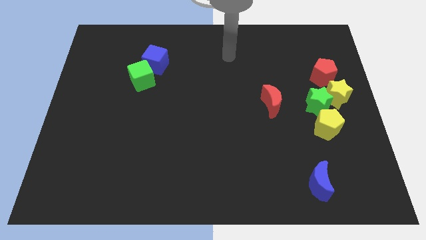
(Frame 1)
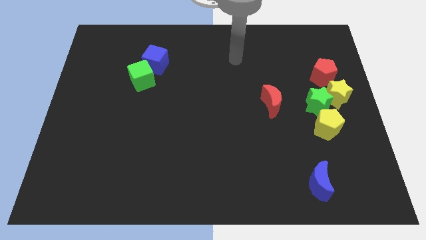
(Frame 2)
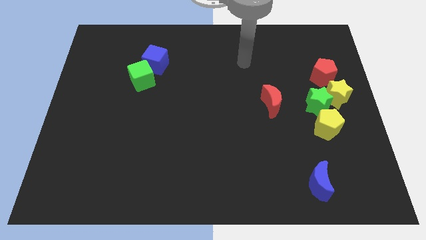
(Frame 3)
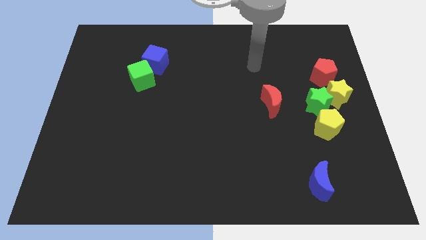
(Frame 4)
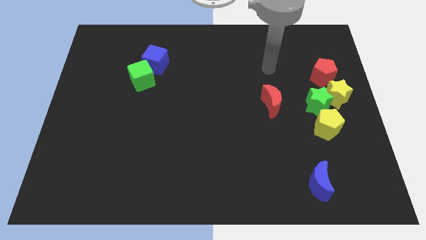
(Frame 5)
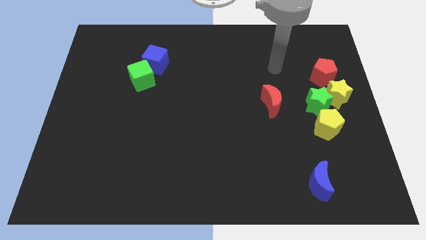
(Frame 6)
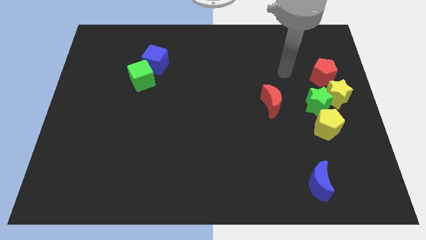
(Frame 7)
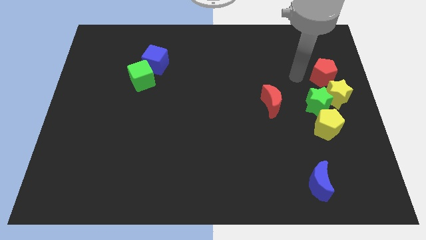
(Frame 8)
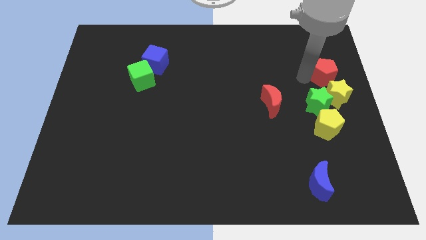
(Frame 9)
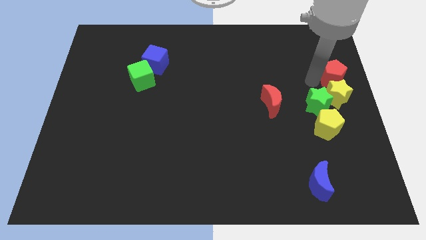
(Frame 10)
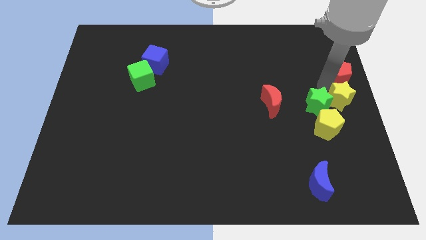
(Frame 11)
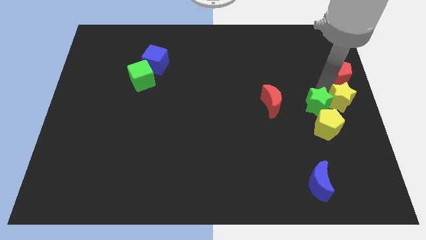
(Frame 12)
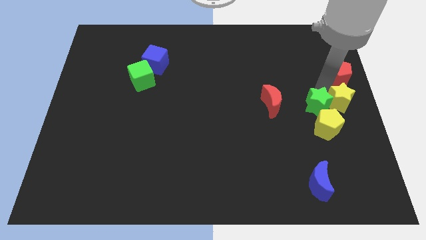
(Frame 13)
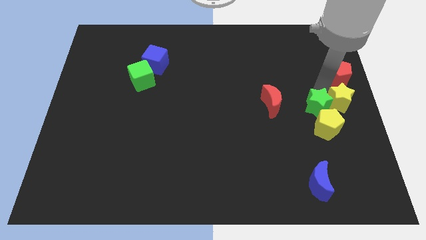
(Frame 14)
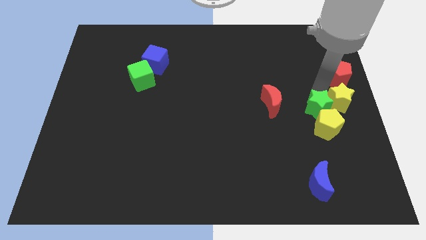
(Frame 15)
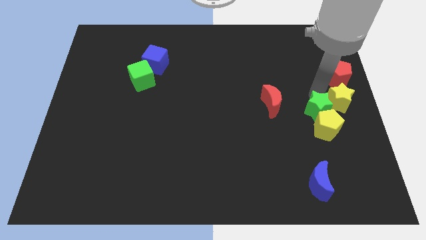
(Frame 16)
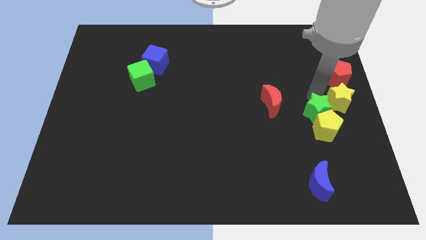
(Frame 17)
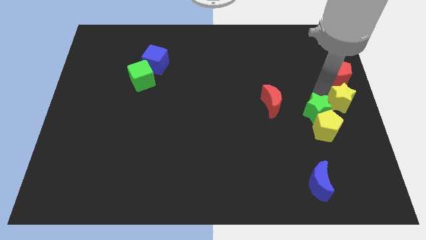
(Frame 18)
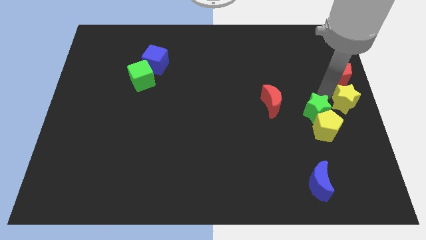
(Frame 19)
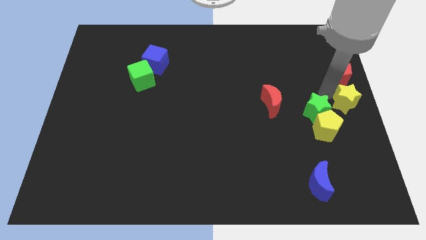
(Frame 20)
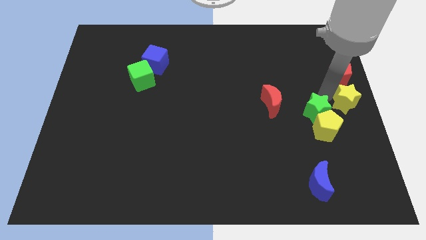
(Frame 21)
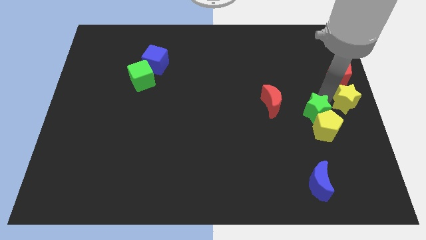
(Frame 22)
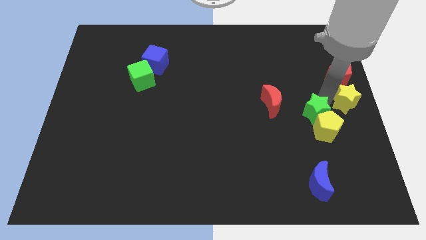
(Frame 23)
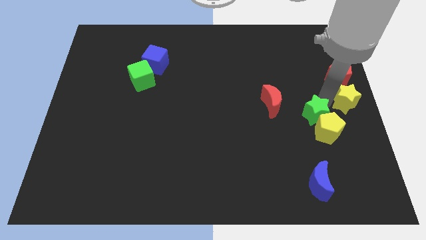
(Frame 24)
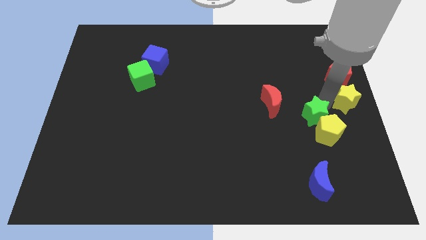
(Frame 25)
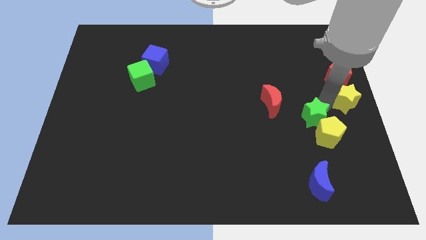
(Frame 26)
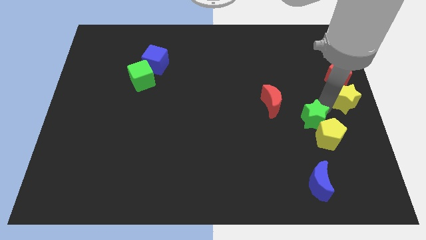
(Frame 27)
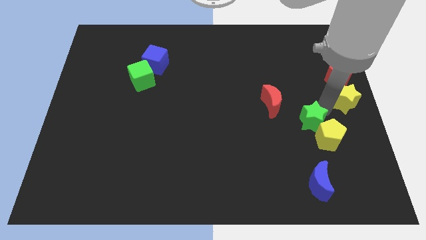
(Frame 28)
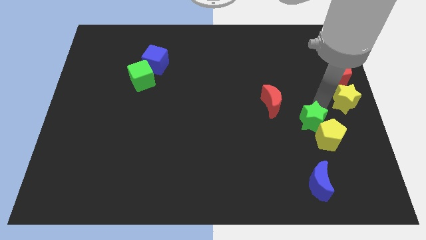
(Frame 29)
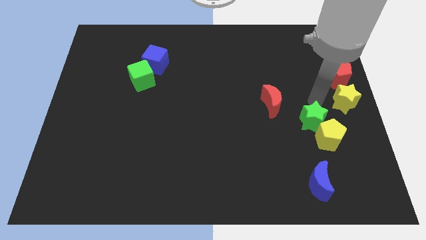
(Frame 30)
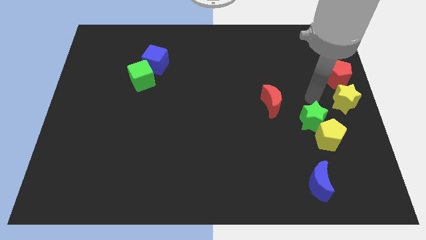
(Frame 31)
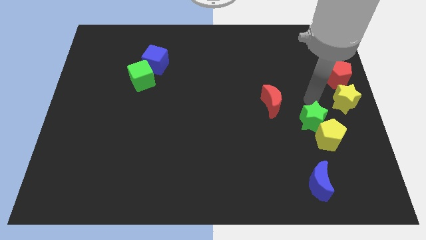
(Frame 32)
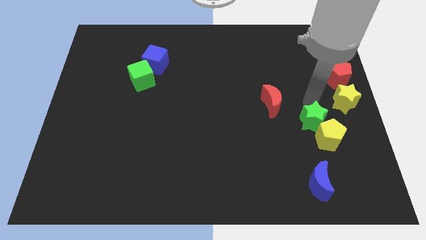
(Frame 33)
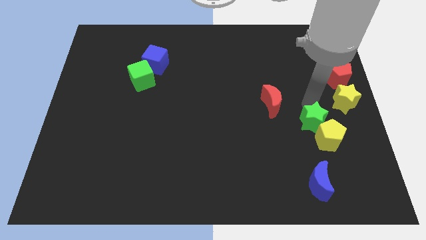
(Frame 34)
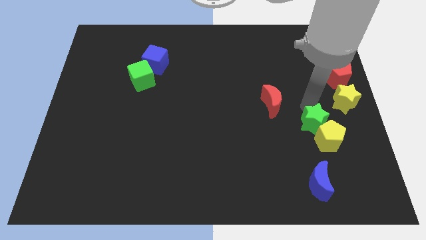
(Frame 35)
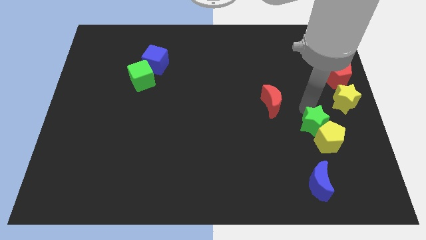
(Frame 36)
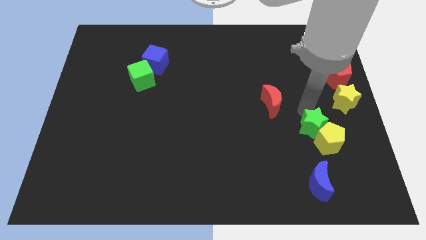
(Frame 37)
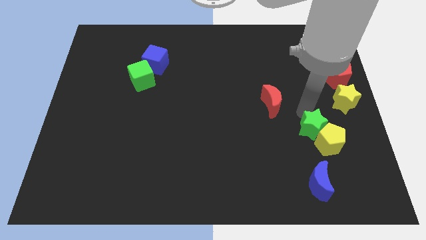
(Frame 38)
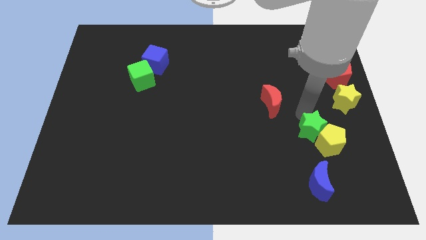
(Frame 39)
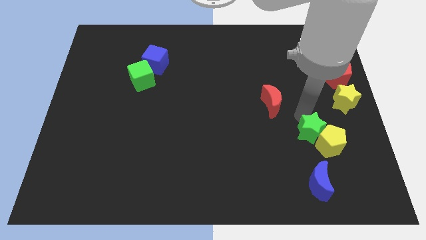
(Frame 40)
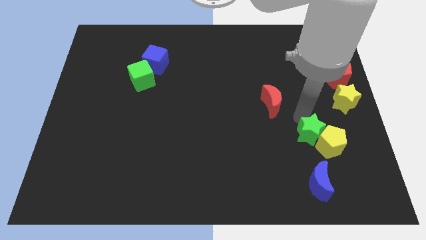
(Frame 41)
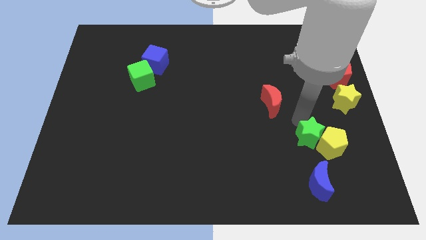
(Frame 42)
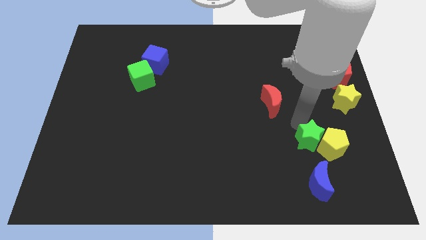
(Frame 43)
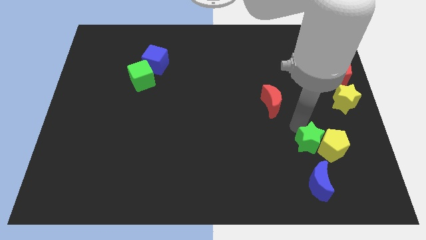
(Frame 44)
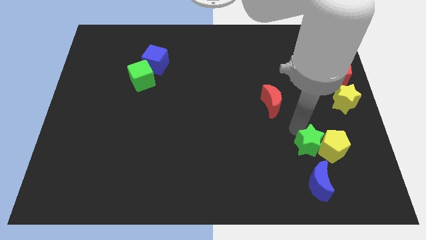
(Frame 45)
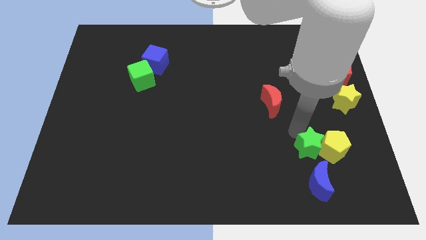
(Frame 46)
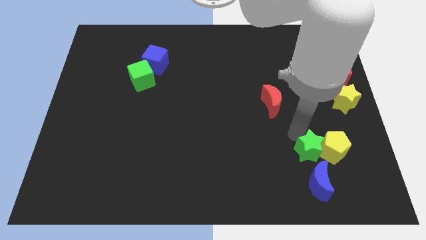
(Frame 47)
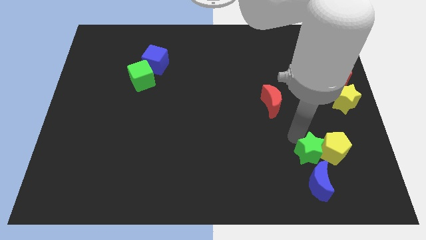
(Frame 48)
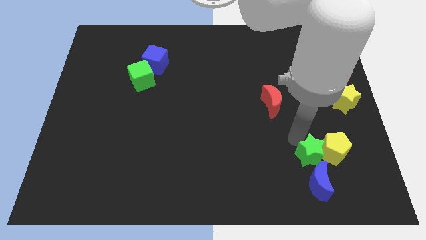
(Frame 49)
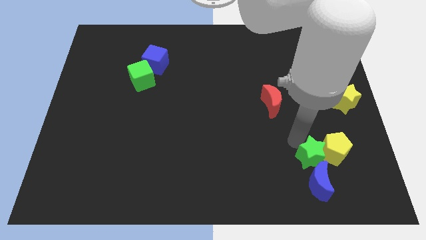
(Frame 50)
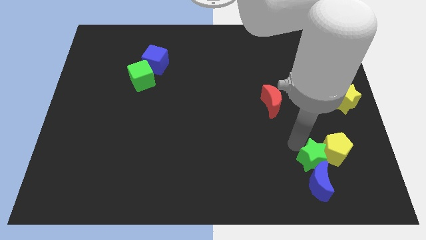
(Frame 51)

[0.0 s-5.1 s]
put the green star towards the blue moon

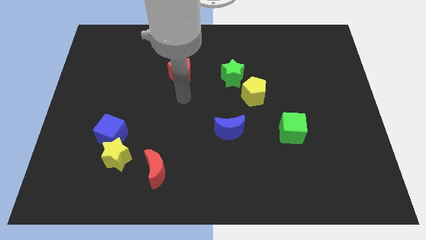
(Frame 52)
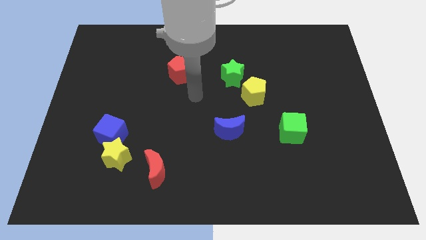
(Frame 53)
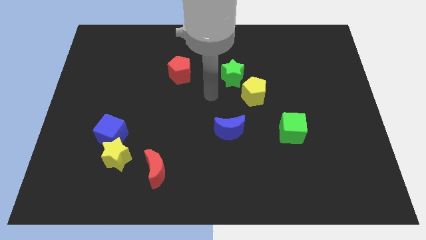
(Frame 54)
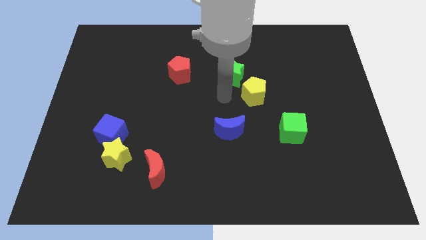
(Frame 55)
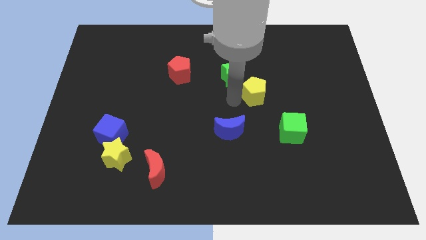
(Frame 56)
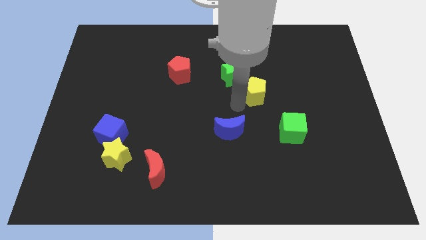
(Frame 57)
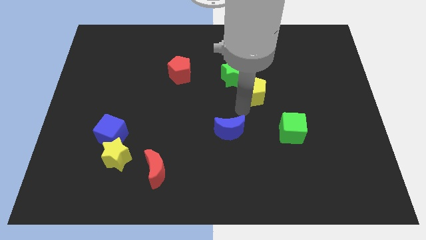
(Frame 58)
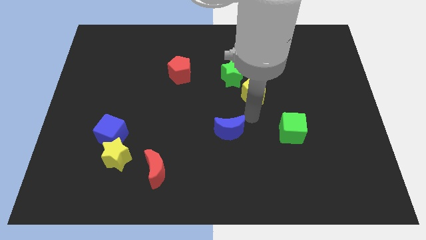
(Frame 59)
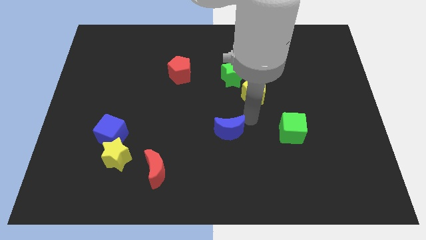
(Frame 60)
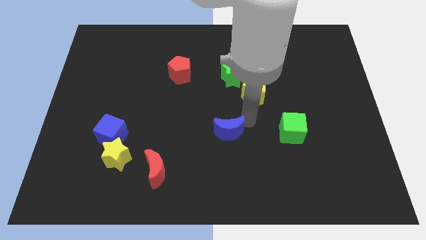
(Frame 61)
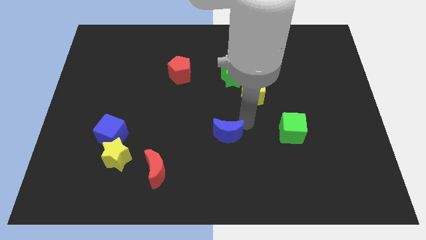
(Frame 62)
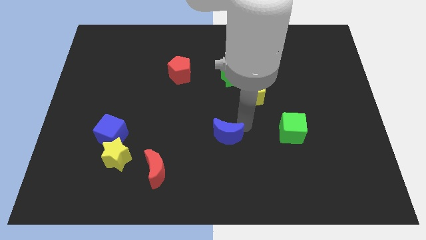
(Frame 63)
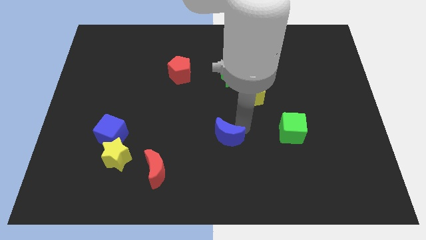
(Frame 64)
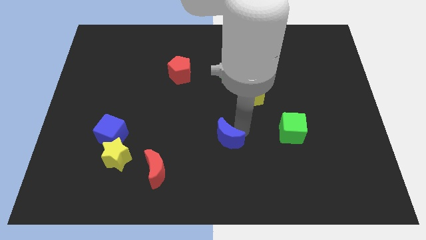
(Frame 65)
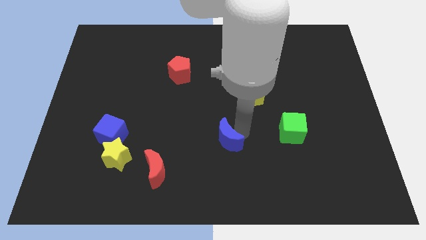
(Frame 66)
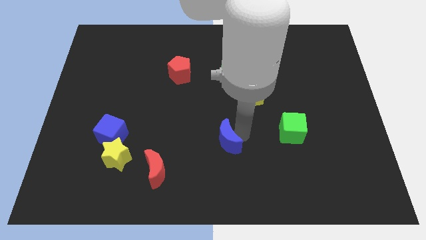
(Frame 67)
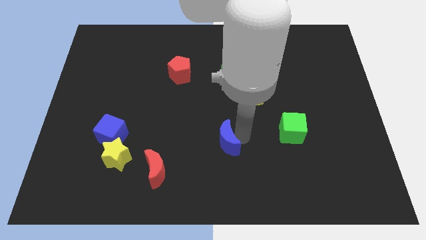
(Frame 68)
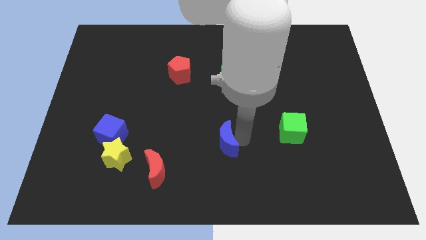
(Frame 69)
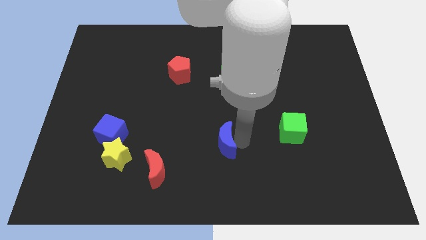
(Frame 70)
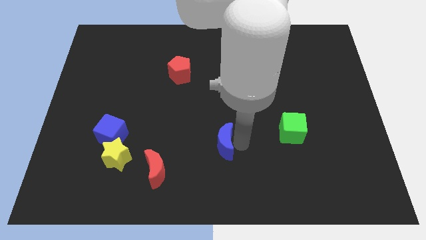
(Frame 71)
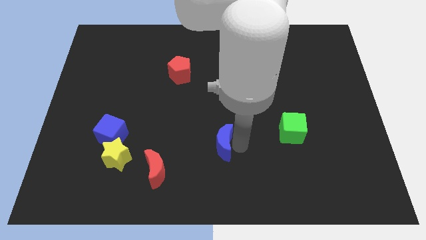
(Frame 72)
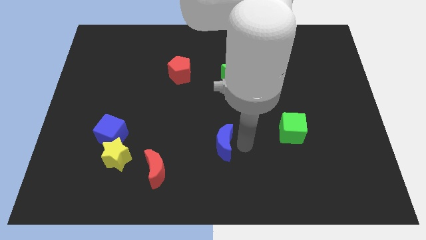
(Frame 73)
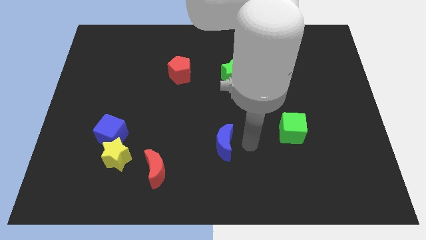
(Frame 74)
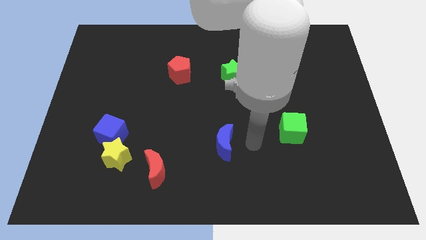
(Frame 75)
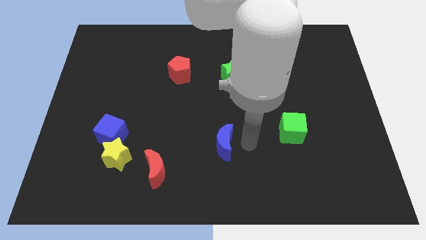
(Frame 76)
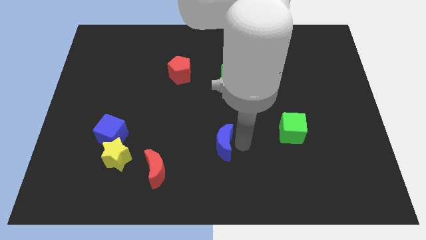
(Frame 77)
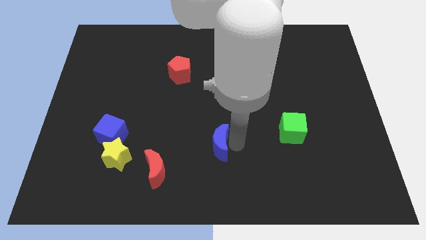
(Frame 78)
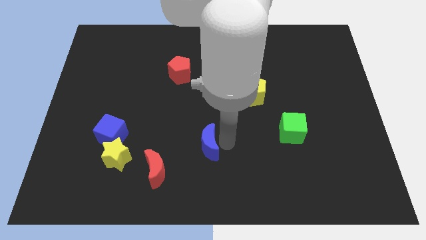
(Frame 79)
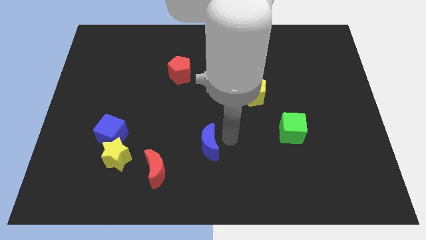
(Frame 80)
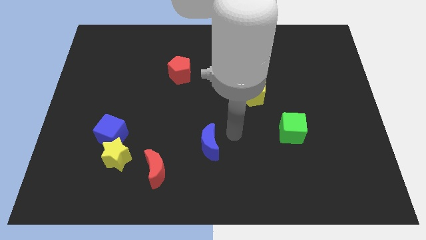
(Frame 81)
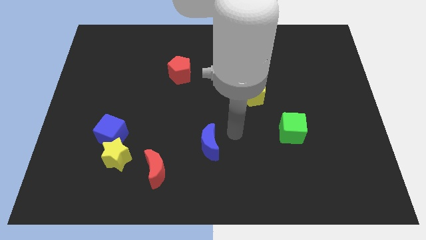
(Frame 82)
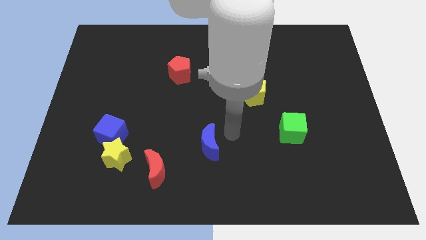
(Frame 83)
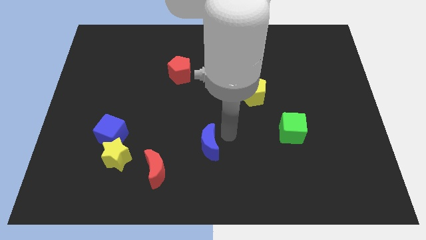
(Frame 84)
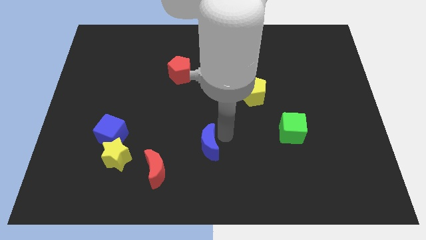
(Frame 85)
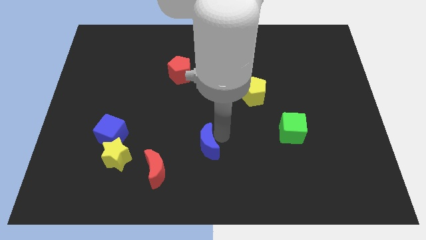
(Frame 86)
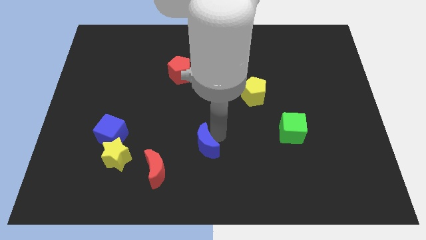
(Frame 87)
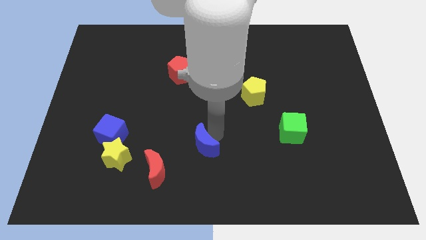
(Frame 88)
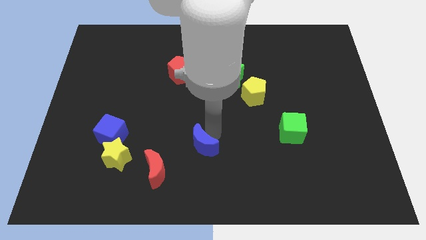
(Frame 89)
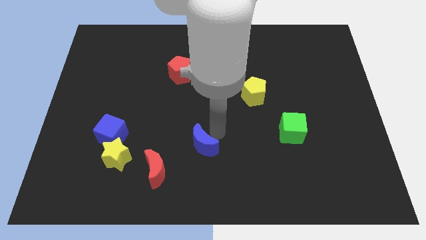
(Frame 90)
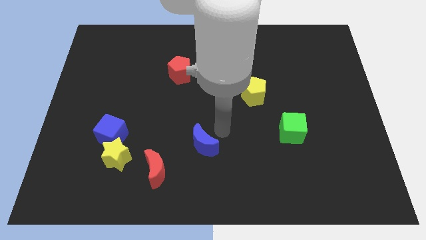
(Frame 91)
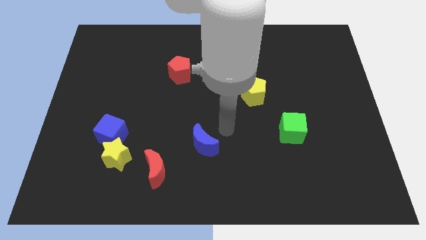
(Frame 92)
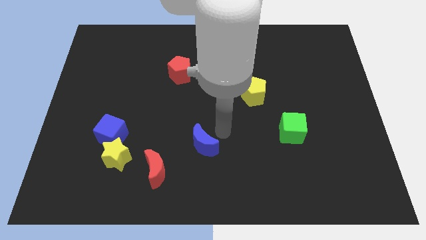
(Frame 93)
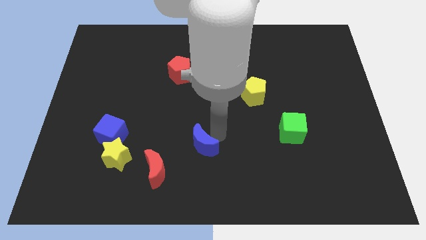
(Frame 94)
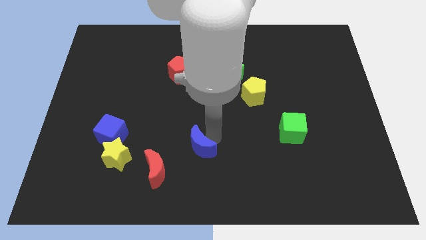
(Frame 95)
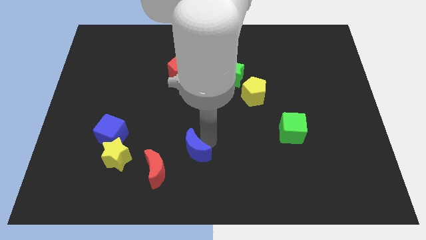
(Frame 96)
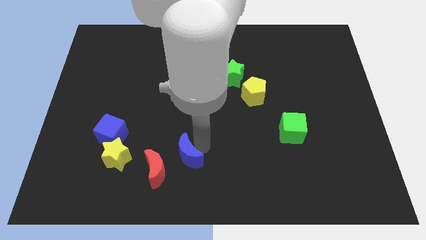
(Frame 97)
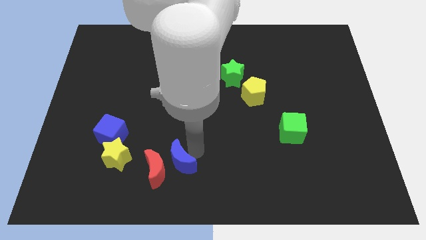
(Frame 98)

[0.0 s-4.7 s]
push the blue moon towards the red moon
